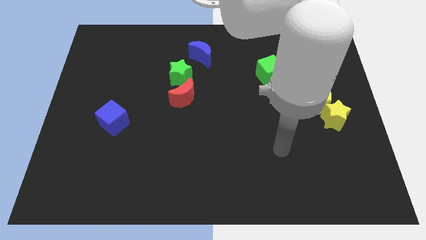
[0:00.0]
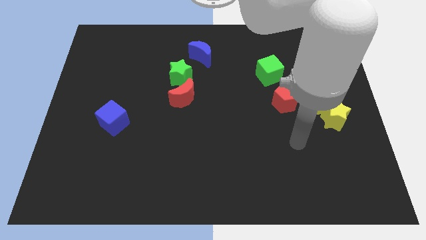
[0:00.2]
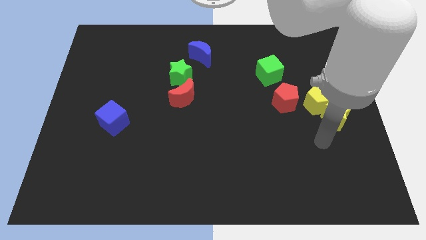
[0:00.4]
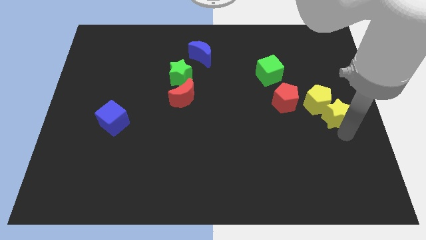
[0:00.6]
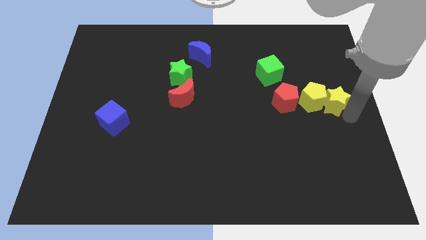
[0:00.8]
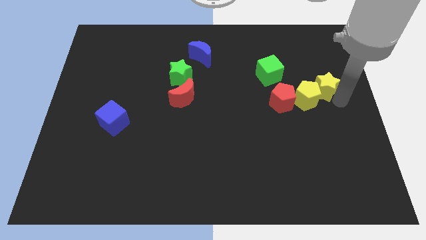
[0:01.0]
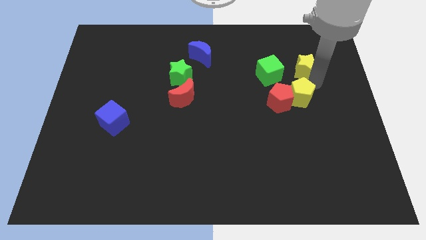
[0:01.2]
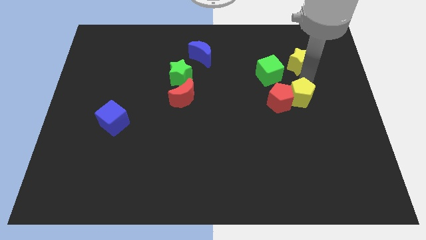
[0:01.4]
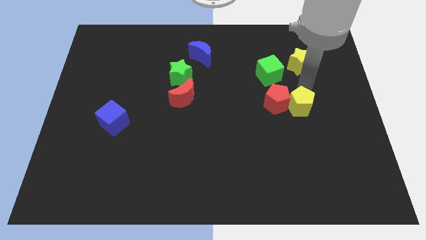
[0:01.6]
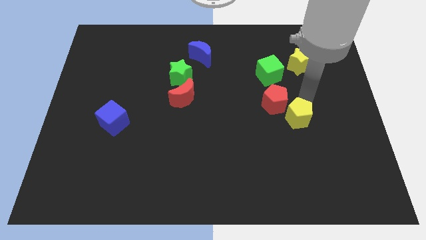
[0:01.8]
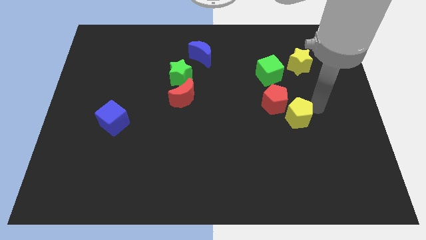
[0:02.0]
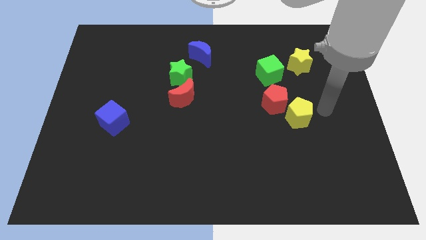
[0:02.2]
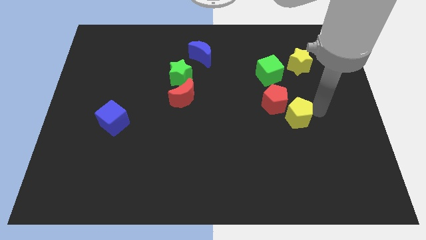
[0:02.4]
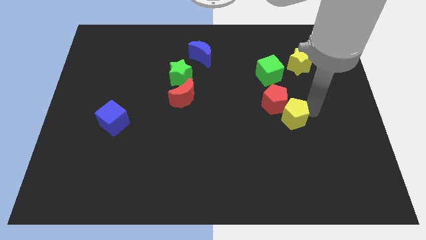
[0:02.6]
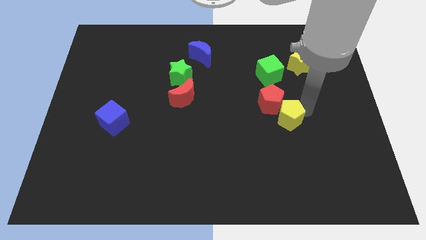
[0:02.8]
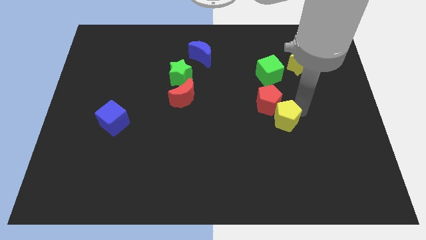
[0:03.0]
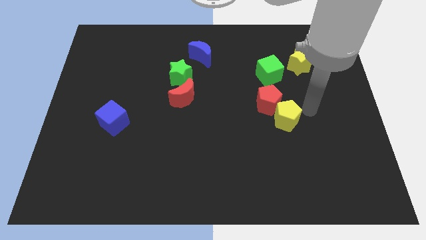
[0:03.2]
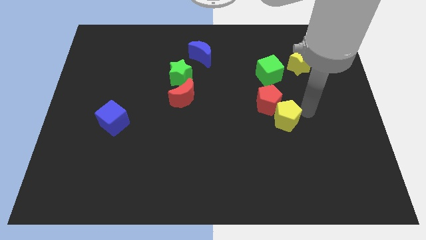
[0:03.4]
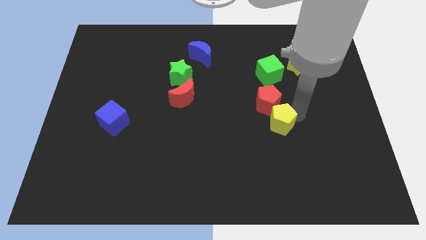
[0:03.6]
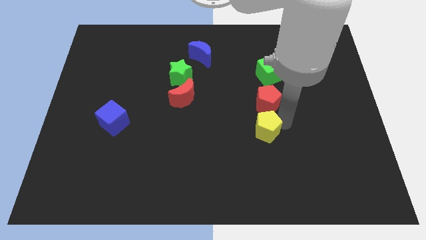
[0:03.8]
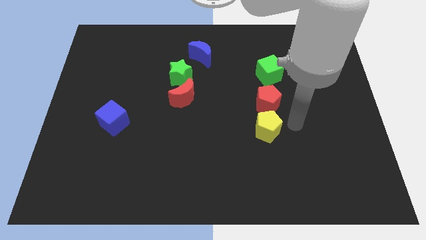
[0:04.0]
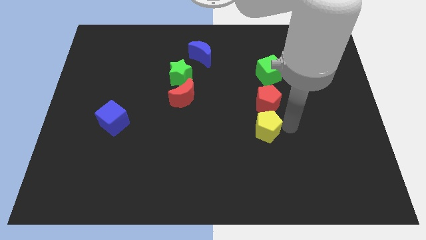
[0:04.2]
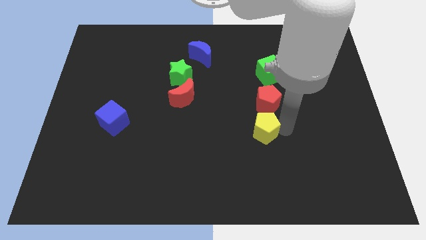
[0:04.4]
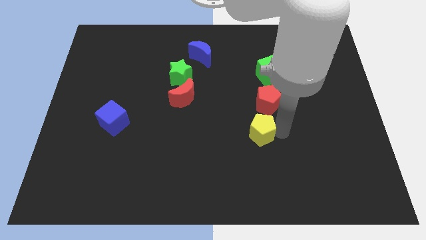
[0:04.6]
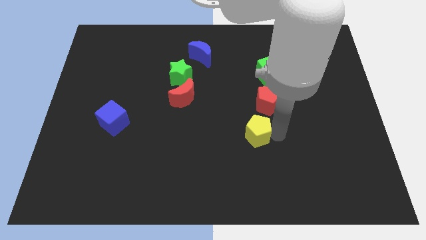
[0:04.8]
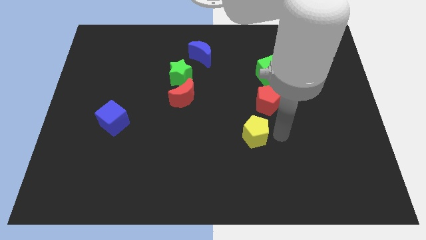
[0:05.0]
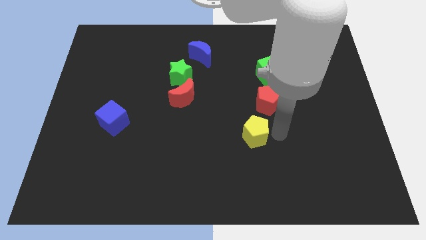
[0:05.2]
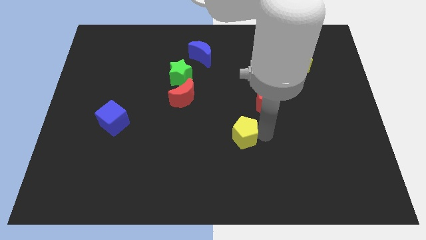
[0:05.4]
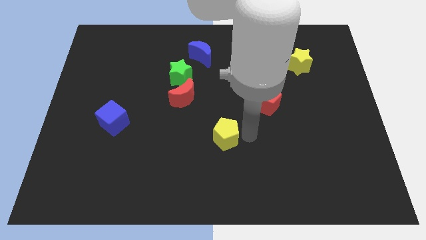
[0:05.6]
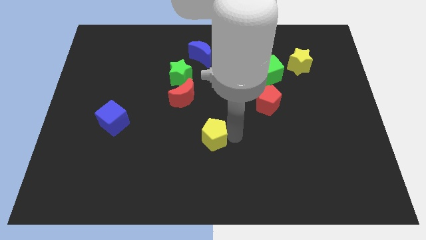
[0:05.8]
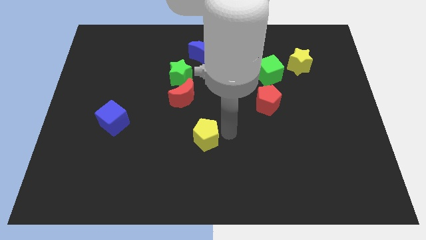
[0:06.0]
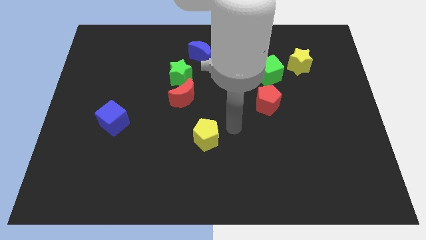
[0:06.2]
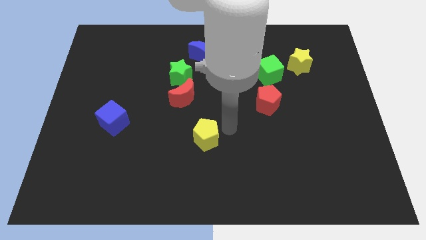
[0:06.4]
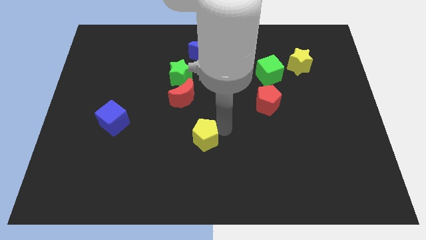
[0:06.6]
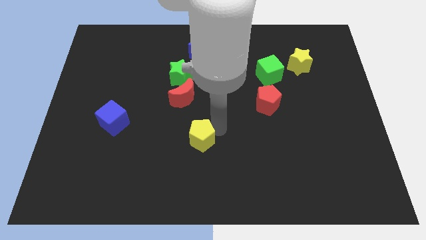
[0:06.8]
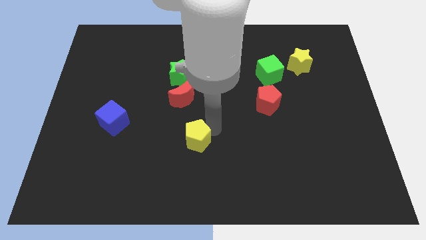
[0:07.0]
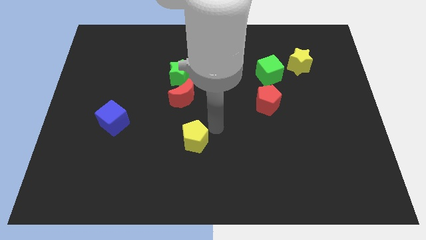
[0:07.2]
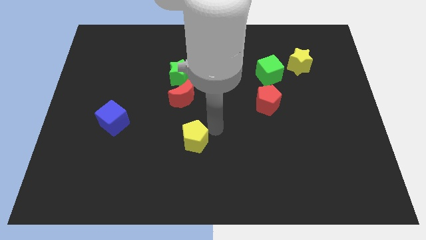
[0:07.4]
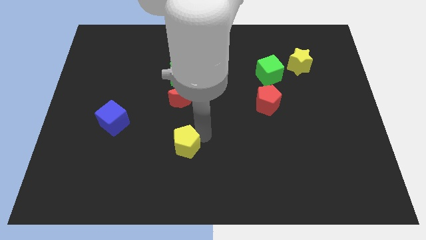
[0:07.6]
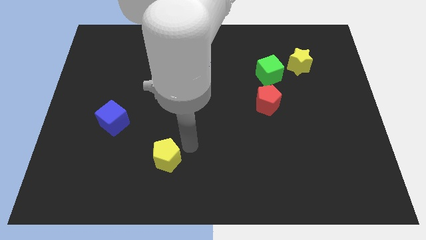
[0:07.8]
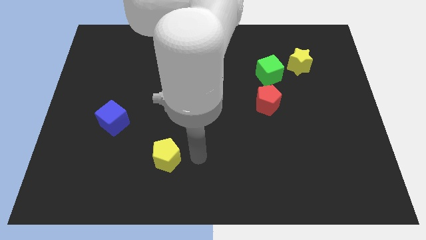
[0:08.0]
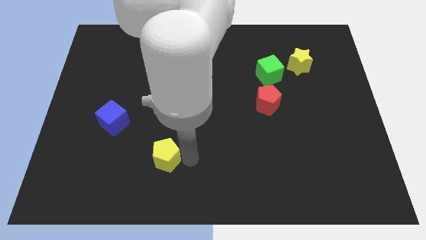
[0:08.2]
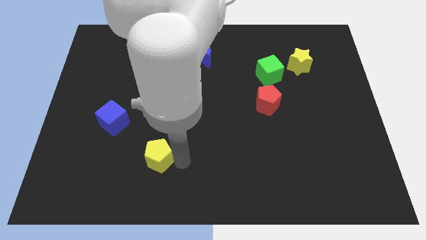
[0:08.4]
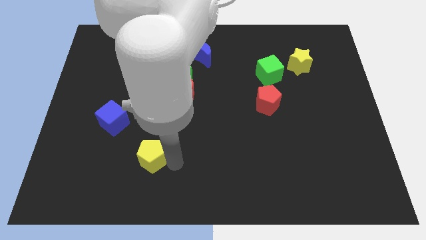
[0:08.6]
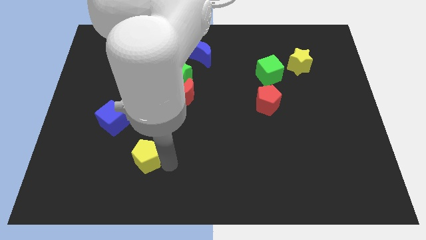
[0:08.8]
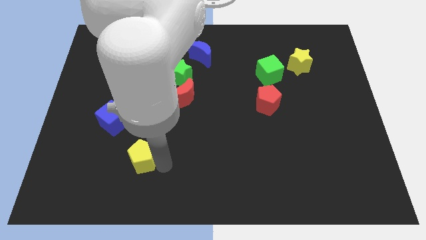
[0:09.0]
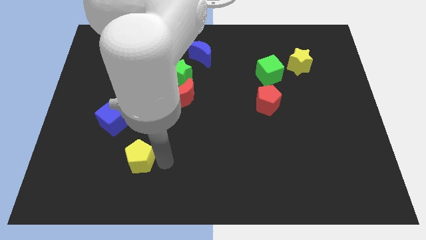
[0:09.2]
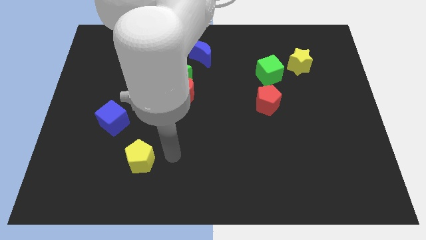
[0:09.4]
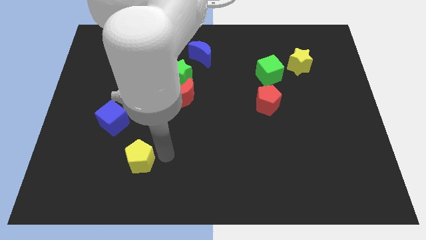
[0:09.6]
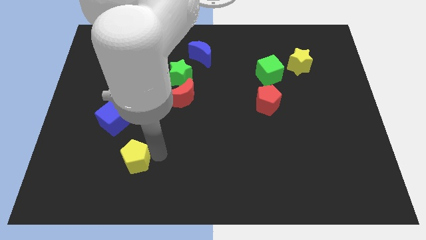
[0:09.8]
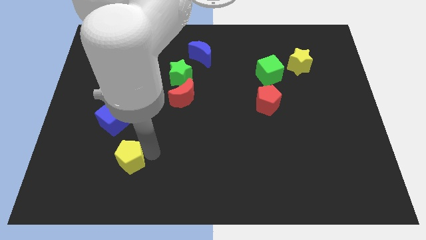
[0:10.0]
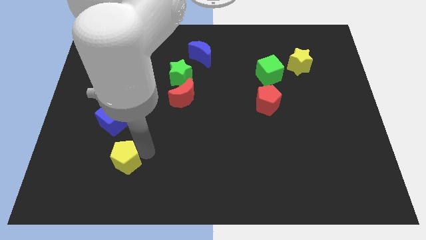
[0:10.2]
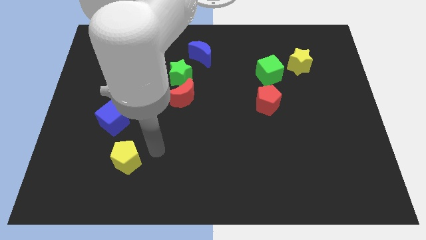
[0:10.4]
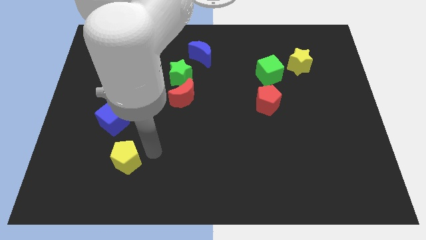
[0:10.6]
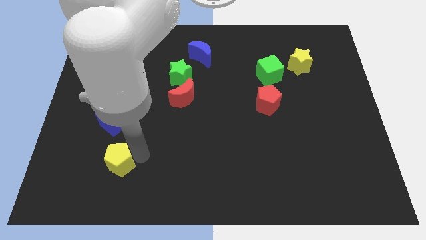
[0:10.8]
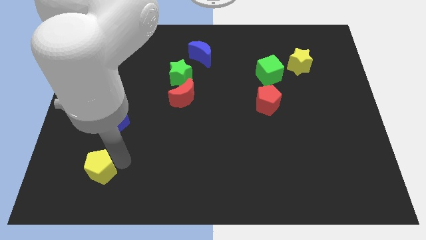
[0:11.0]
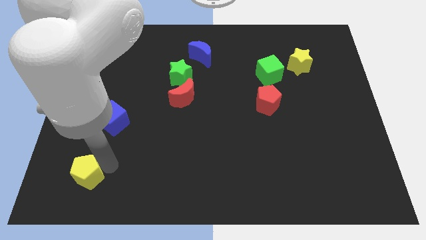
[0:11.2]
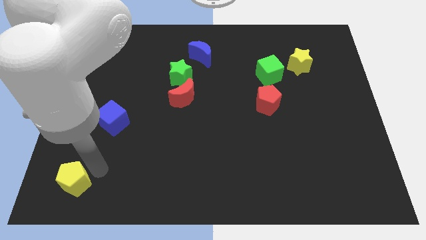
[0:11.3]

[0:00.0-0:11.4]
slide the yellow pentagon to the bottom left
